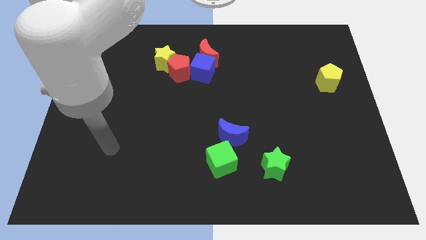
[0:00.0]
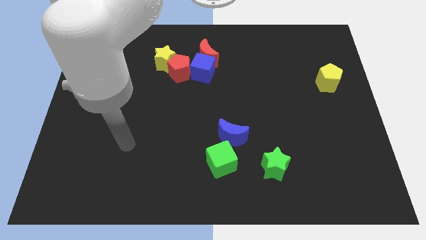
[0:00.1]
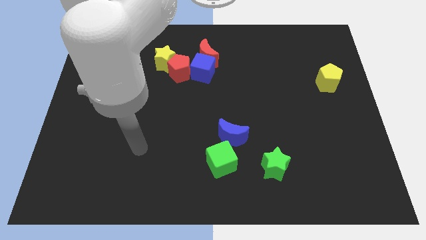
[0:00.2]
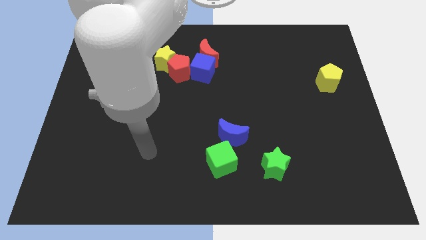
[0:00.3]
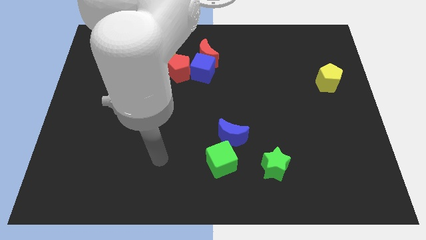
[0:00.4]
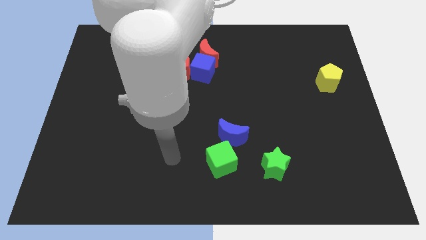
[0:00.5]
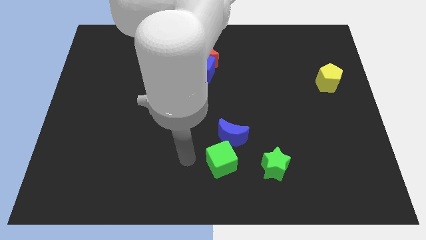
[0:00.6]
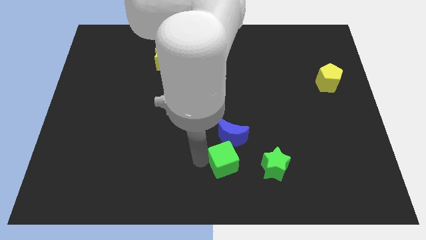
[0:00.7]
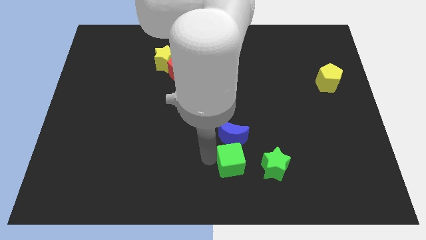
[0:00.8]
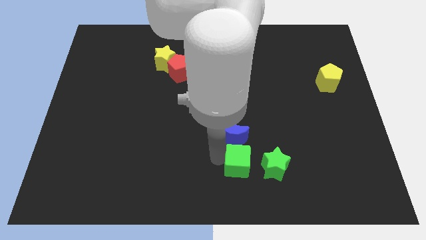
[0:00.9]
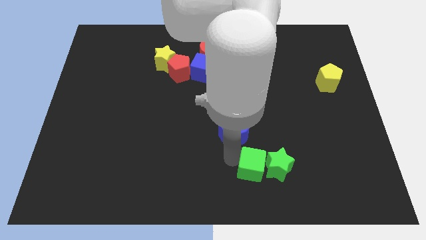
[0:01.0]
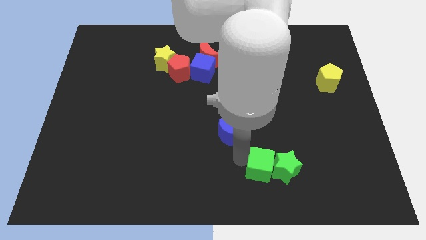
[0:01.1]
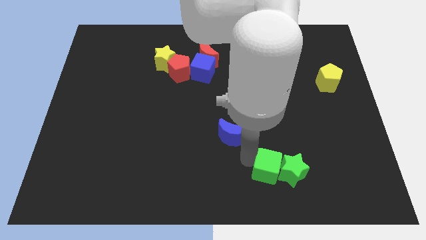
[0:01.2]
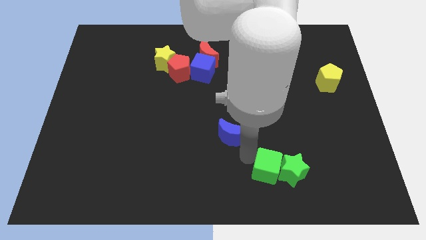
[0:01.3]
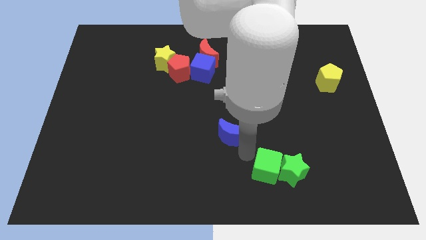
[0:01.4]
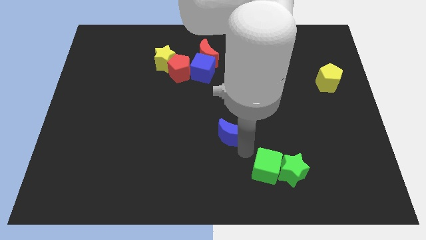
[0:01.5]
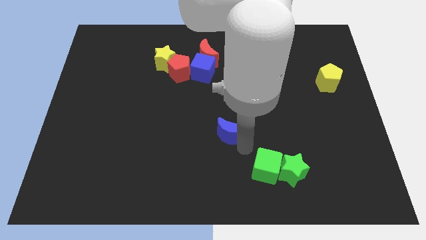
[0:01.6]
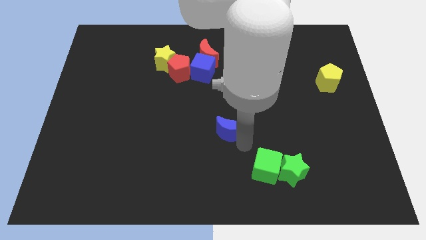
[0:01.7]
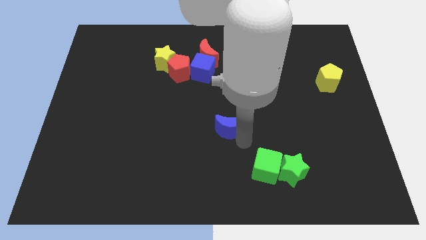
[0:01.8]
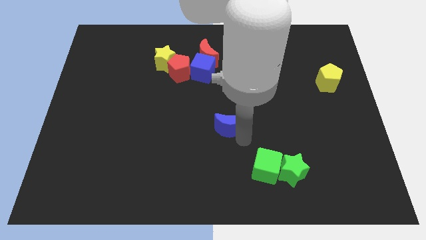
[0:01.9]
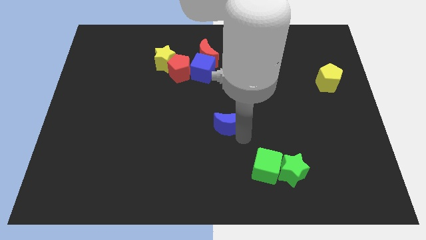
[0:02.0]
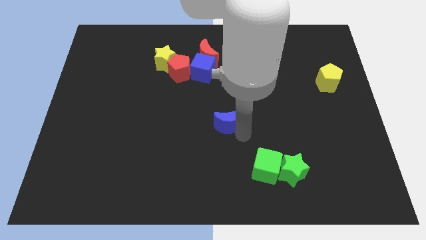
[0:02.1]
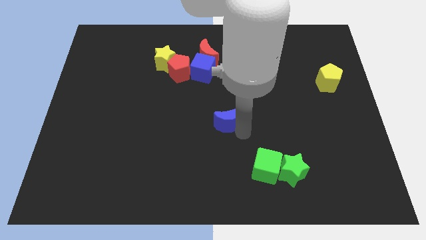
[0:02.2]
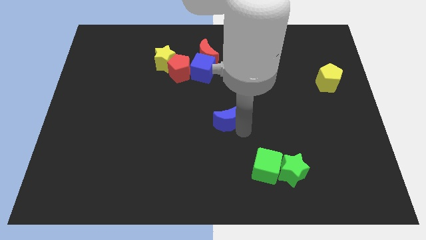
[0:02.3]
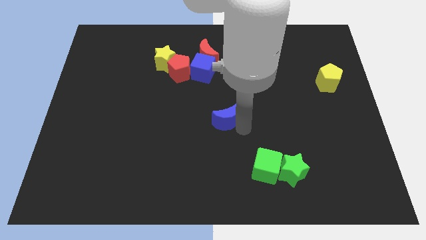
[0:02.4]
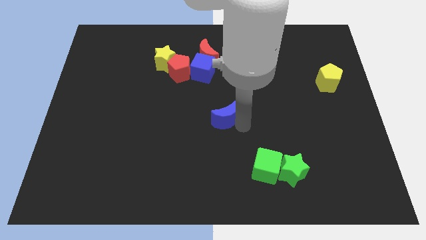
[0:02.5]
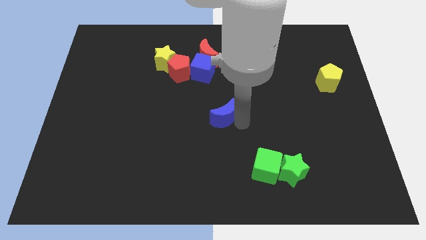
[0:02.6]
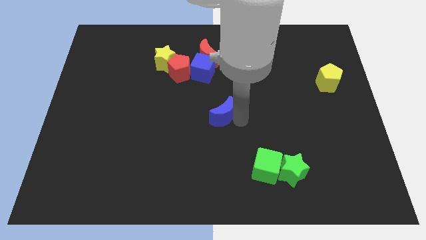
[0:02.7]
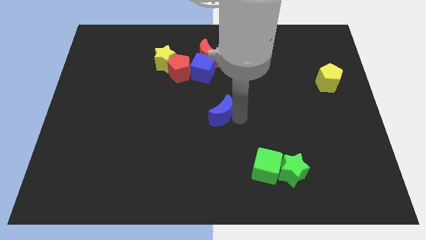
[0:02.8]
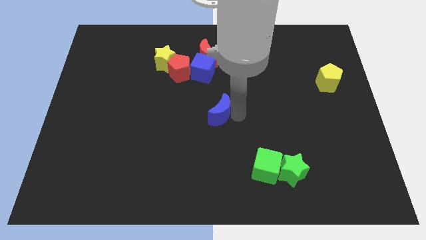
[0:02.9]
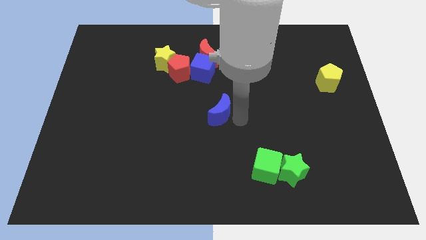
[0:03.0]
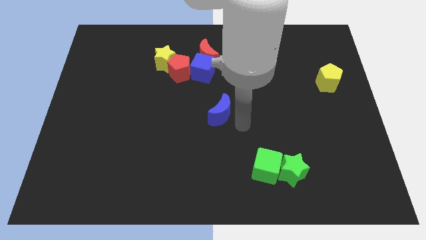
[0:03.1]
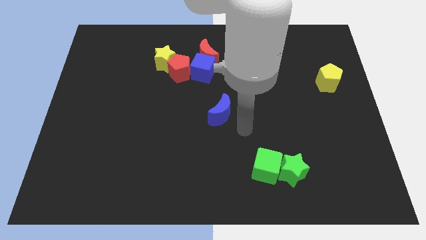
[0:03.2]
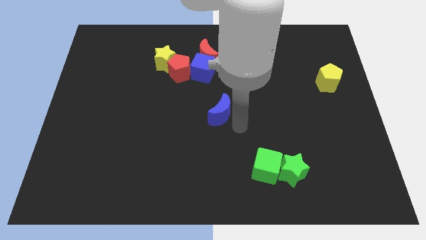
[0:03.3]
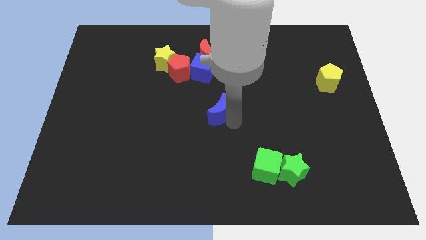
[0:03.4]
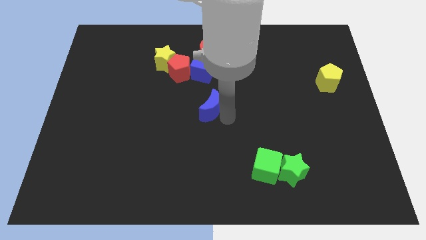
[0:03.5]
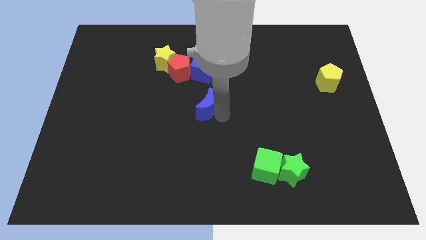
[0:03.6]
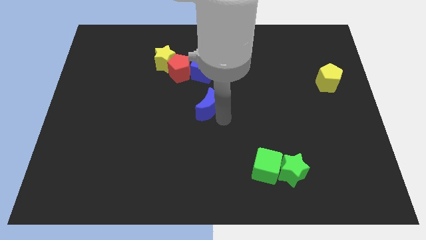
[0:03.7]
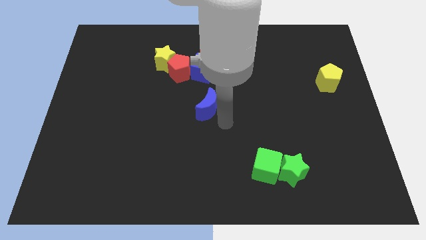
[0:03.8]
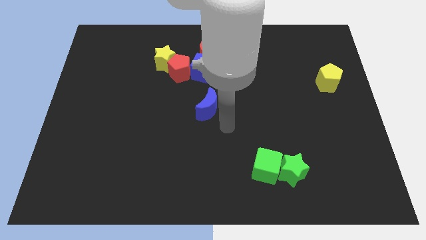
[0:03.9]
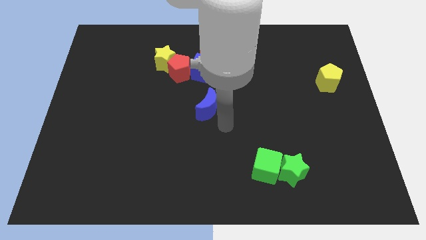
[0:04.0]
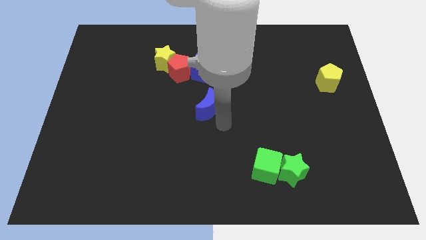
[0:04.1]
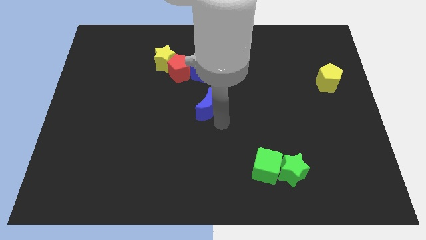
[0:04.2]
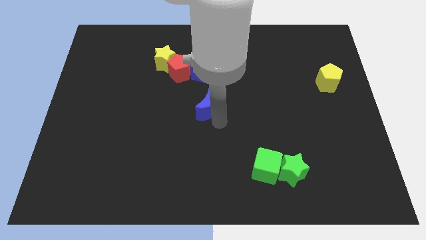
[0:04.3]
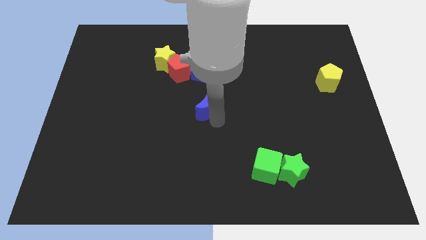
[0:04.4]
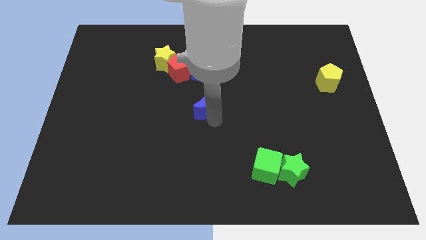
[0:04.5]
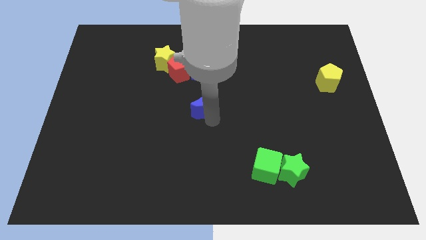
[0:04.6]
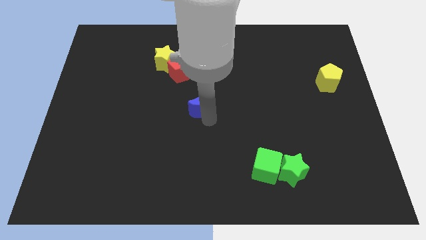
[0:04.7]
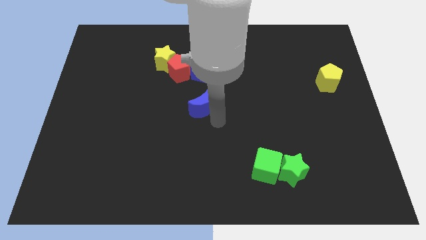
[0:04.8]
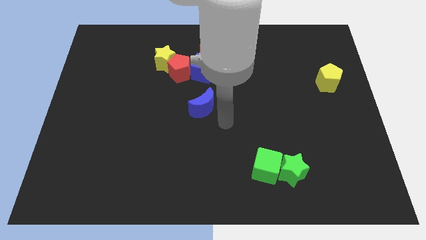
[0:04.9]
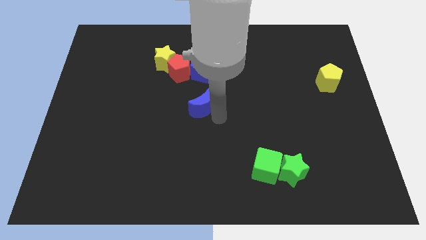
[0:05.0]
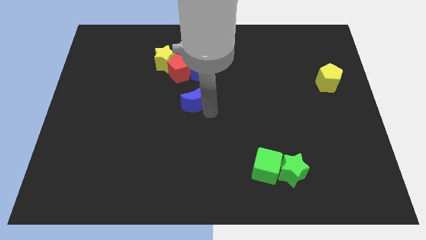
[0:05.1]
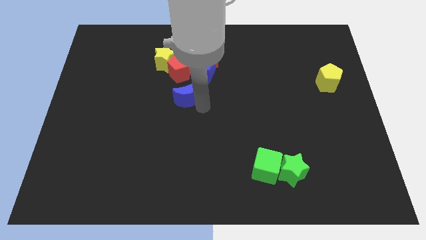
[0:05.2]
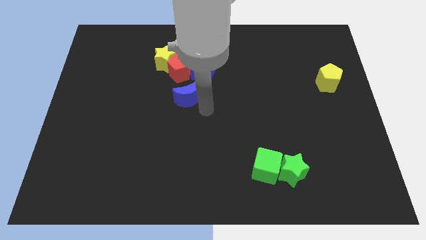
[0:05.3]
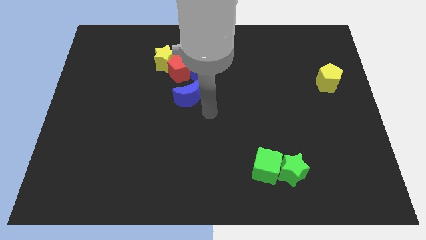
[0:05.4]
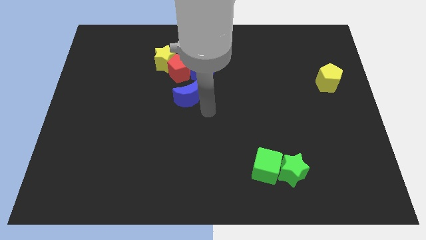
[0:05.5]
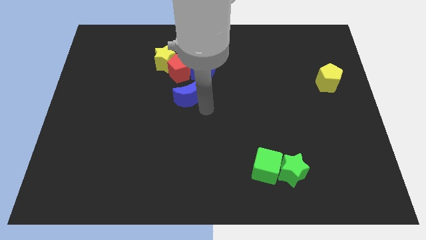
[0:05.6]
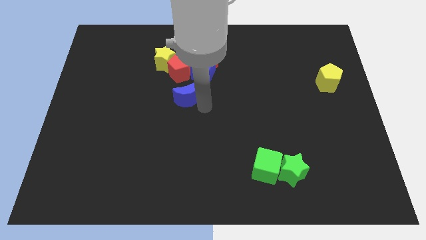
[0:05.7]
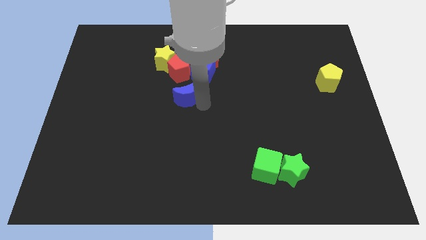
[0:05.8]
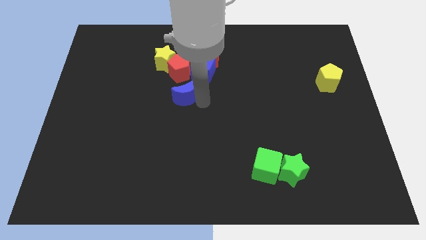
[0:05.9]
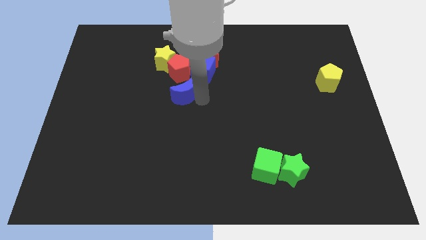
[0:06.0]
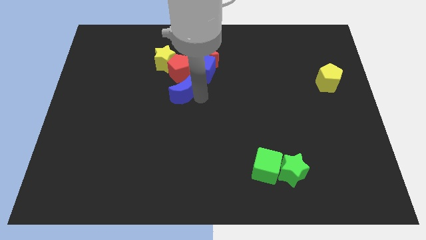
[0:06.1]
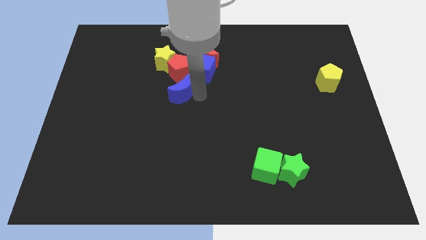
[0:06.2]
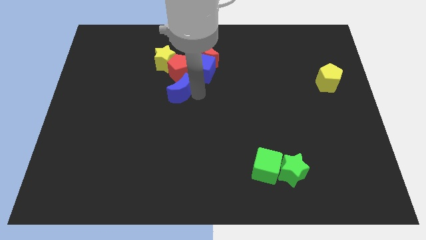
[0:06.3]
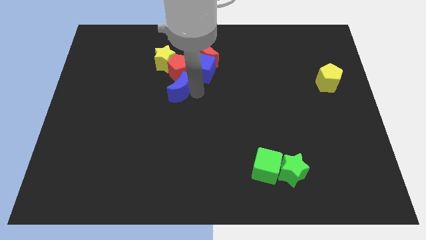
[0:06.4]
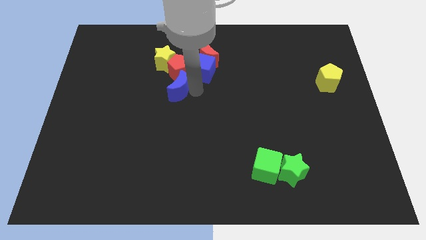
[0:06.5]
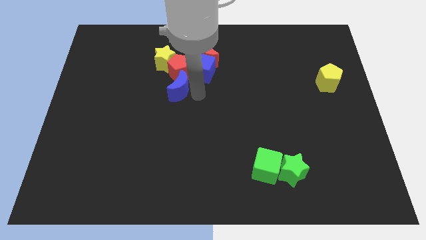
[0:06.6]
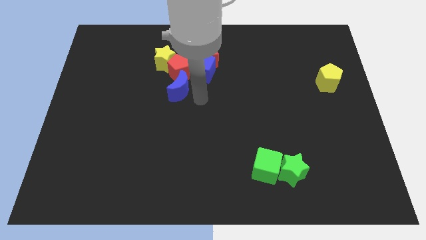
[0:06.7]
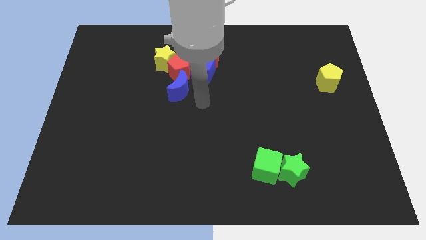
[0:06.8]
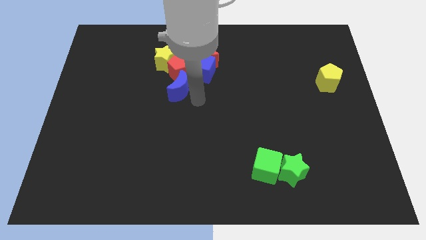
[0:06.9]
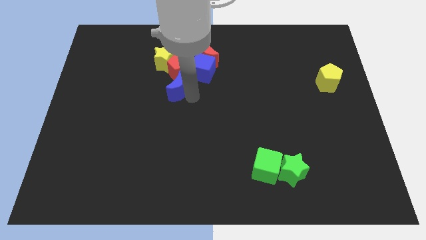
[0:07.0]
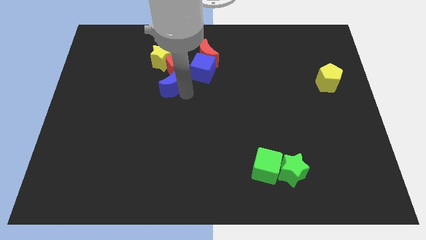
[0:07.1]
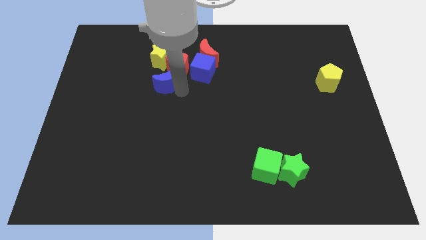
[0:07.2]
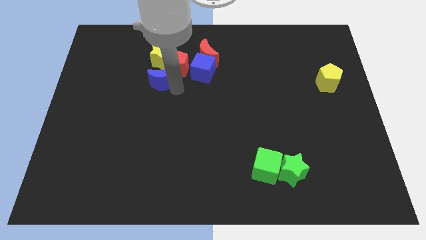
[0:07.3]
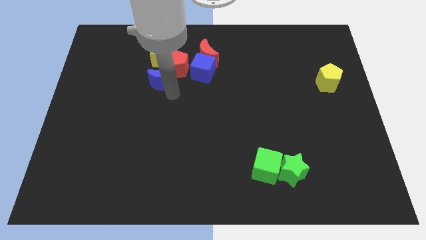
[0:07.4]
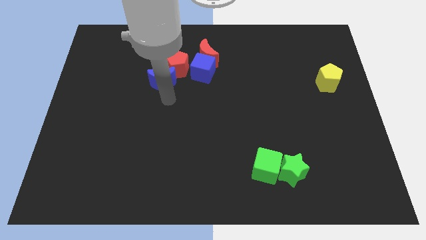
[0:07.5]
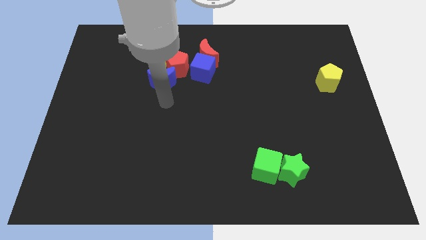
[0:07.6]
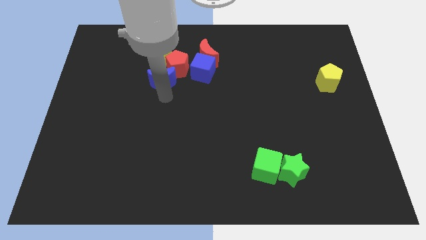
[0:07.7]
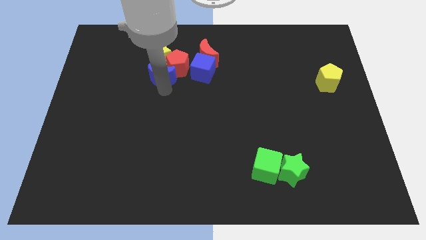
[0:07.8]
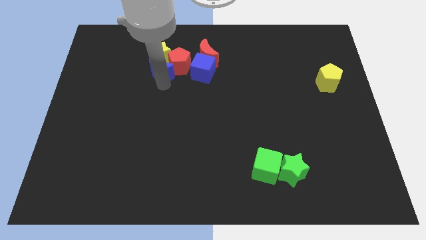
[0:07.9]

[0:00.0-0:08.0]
push the blue moon next to the yellow star

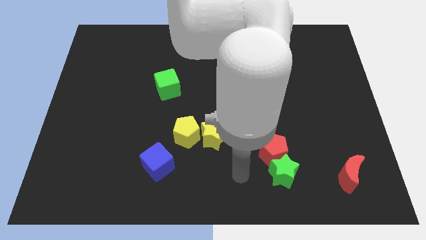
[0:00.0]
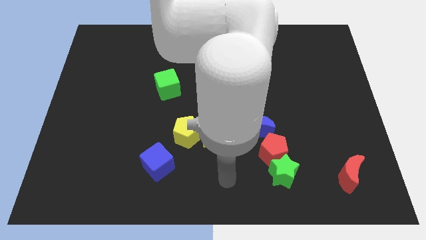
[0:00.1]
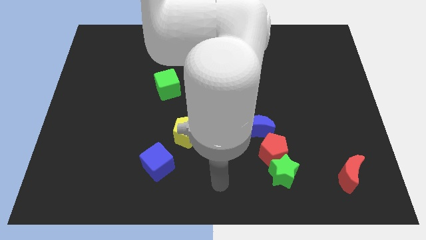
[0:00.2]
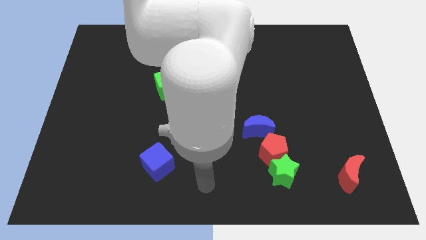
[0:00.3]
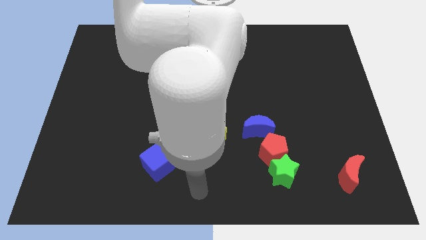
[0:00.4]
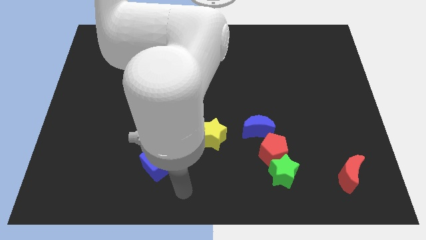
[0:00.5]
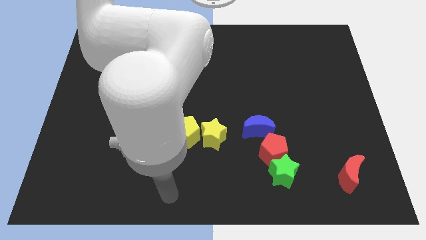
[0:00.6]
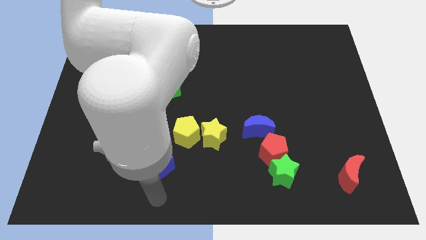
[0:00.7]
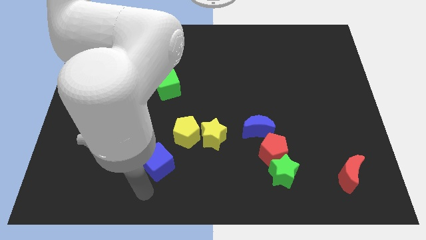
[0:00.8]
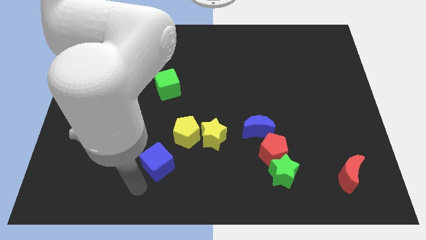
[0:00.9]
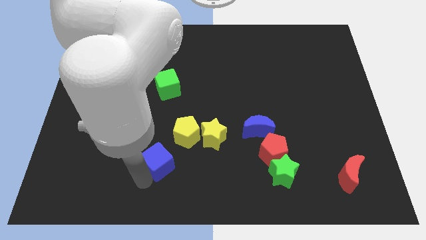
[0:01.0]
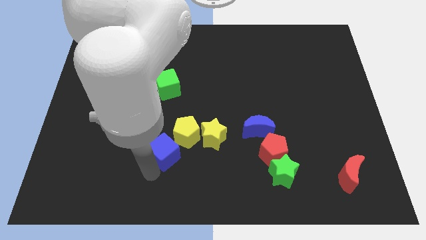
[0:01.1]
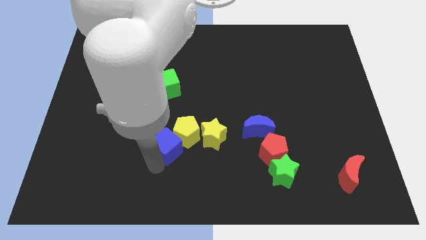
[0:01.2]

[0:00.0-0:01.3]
push the blue cube close to the yellow pentagon
